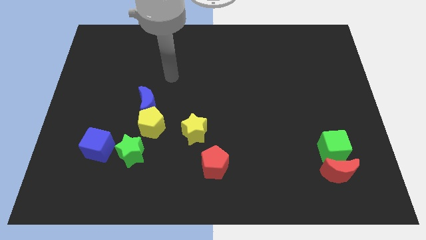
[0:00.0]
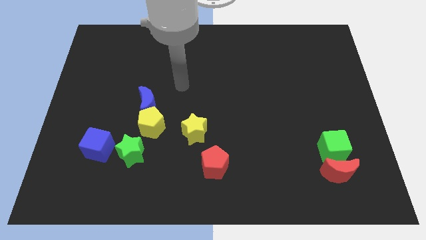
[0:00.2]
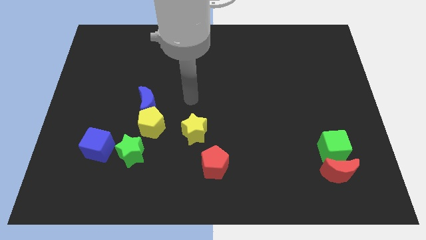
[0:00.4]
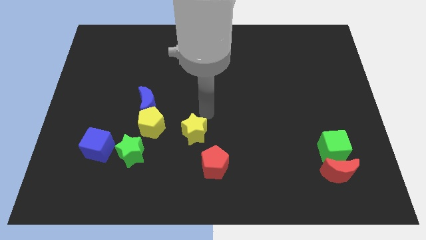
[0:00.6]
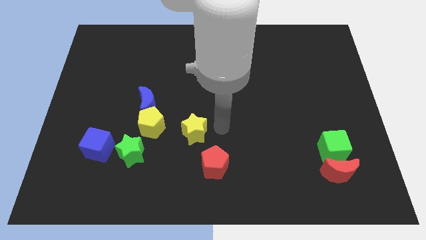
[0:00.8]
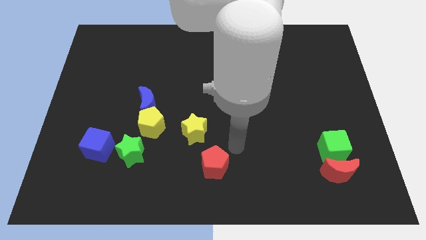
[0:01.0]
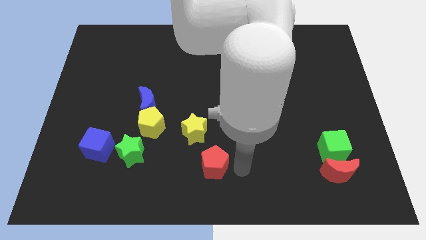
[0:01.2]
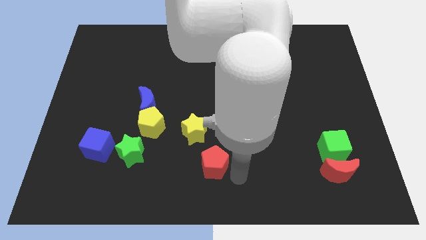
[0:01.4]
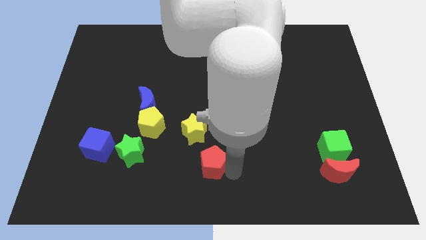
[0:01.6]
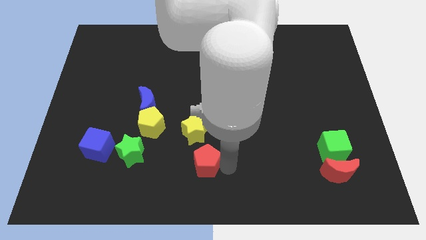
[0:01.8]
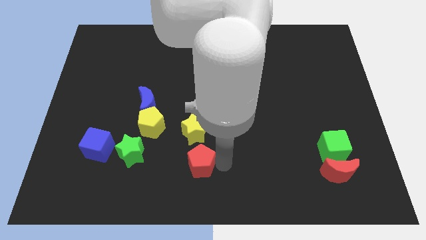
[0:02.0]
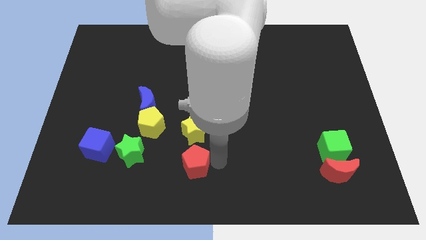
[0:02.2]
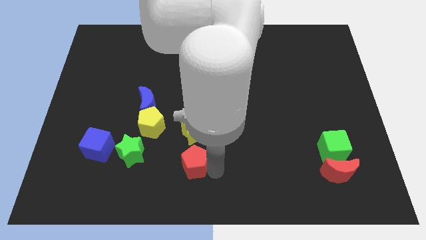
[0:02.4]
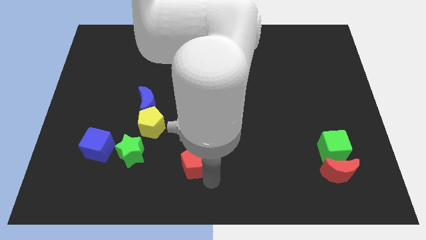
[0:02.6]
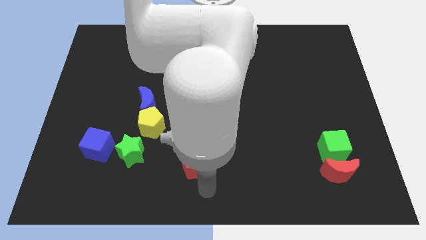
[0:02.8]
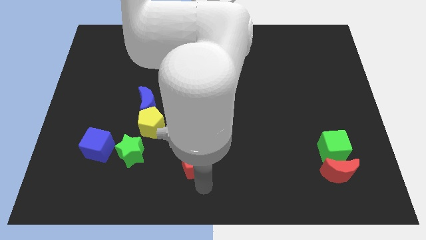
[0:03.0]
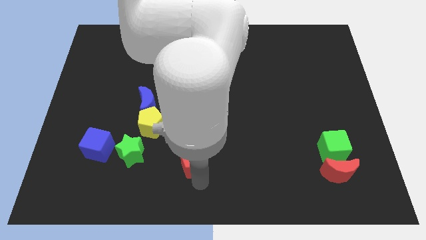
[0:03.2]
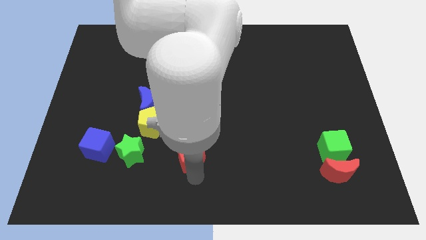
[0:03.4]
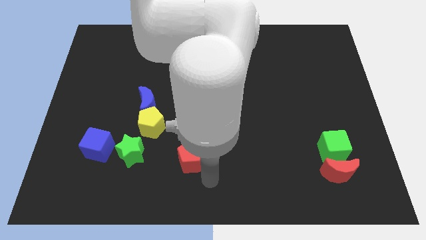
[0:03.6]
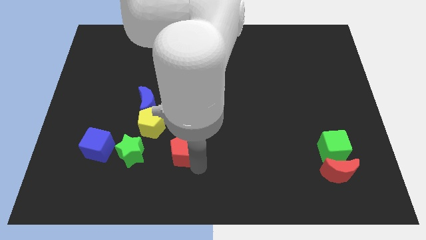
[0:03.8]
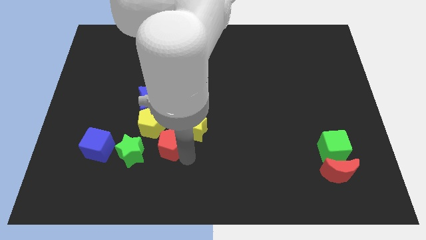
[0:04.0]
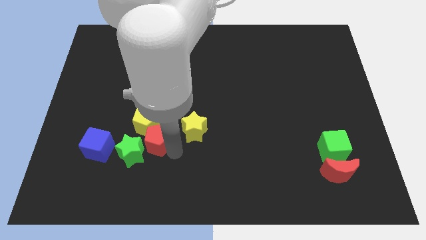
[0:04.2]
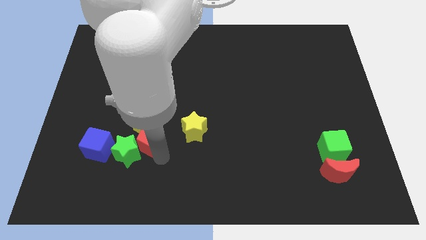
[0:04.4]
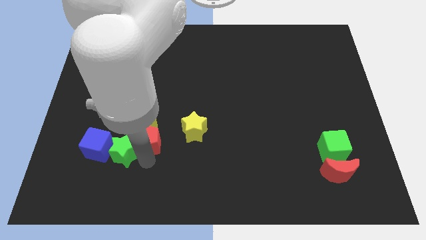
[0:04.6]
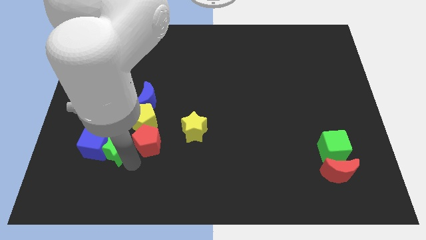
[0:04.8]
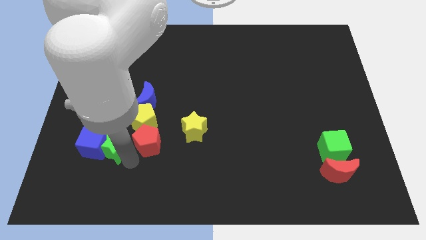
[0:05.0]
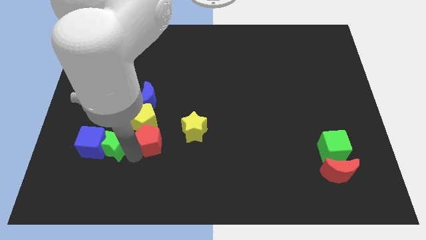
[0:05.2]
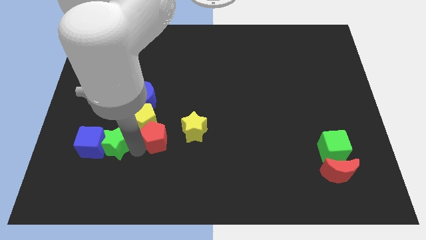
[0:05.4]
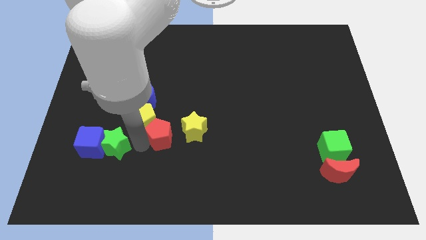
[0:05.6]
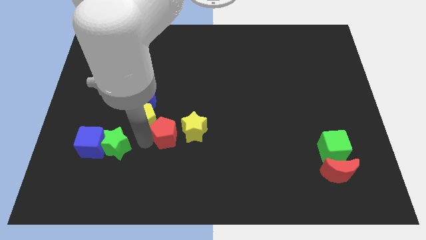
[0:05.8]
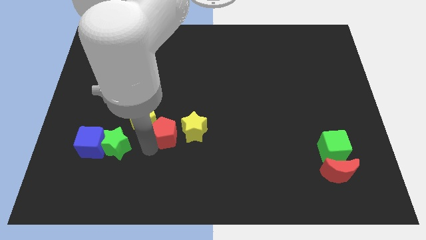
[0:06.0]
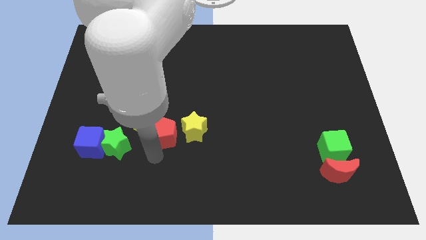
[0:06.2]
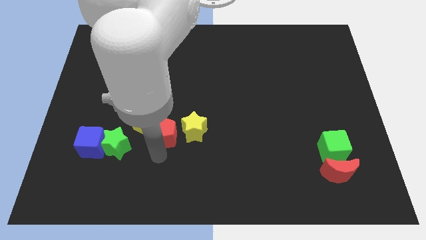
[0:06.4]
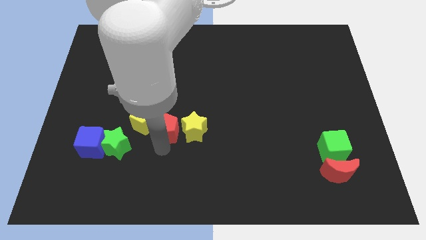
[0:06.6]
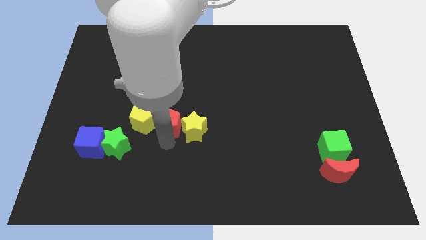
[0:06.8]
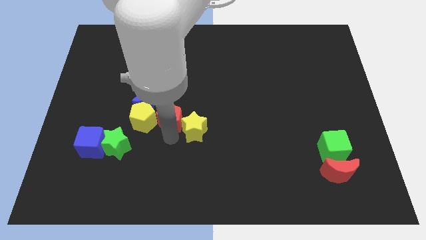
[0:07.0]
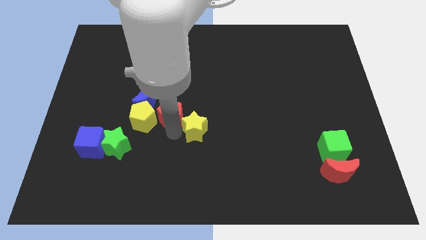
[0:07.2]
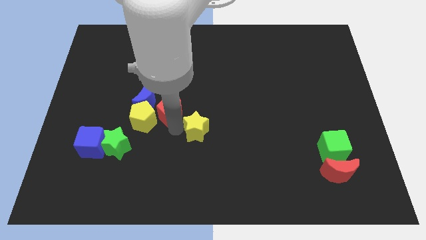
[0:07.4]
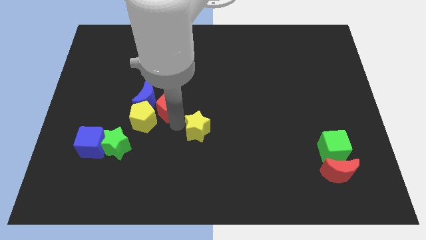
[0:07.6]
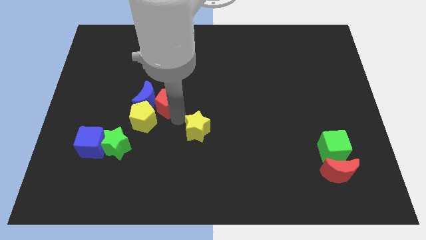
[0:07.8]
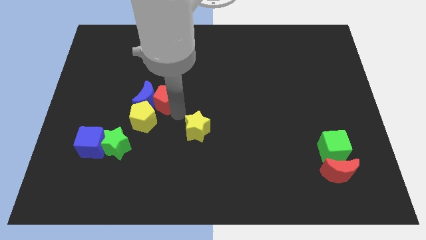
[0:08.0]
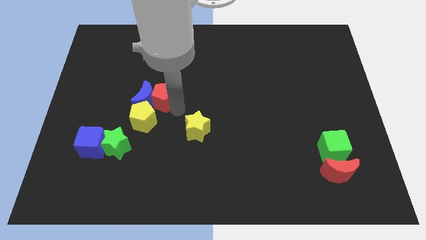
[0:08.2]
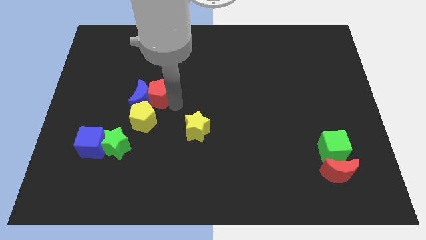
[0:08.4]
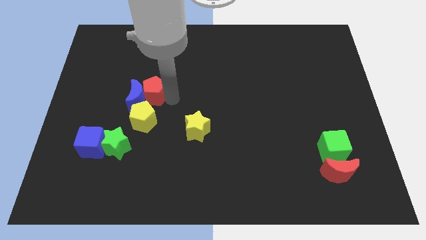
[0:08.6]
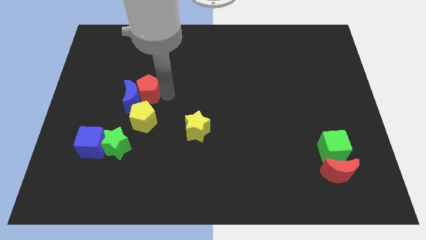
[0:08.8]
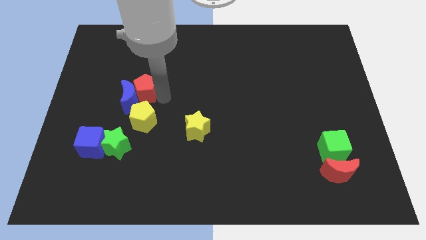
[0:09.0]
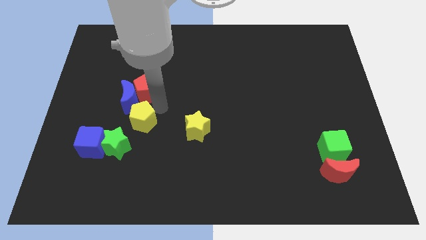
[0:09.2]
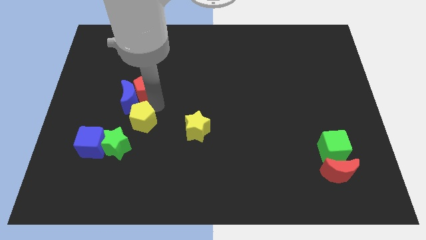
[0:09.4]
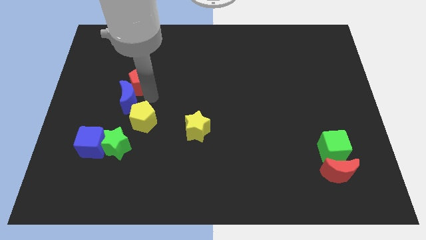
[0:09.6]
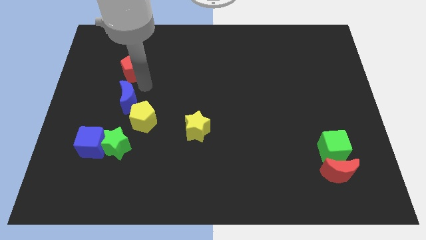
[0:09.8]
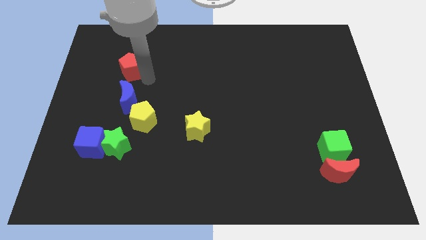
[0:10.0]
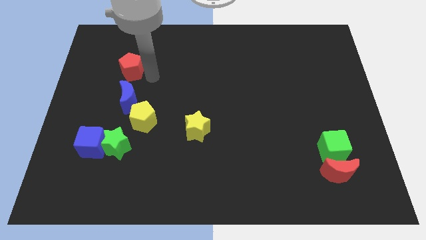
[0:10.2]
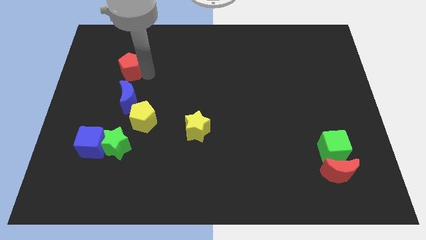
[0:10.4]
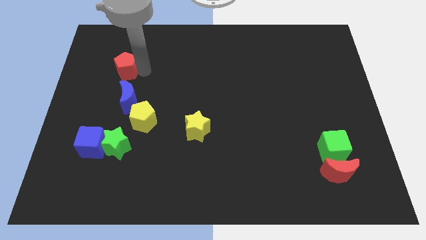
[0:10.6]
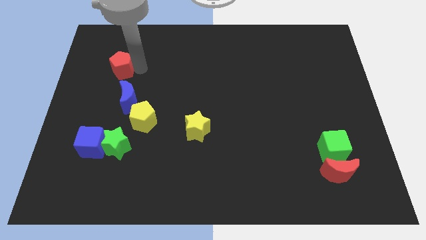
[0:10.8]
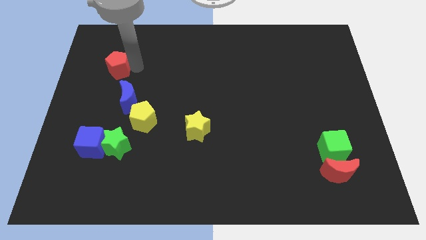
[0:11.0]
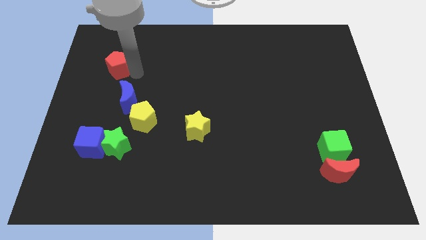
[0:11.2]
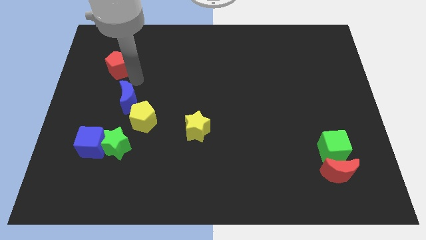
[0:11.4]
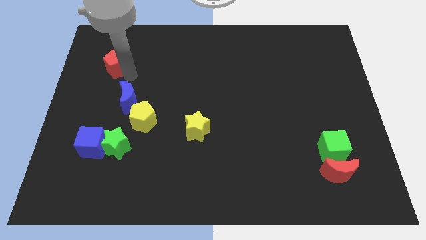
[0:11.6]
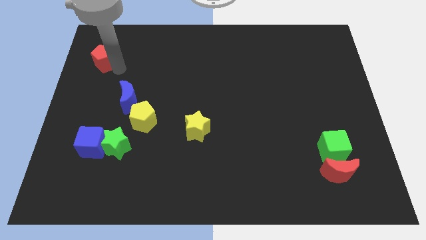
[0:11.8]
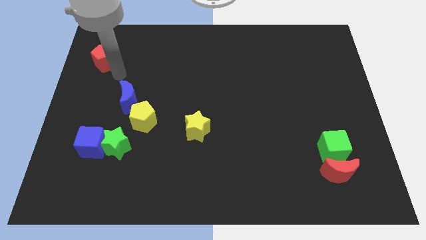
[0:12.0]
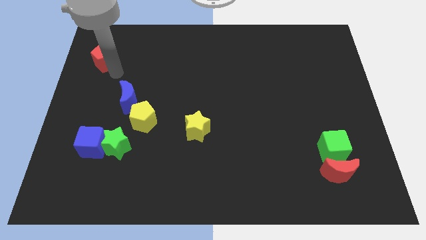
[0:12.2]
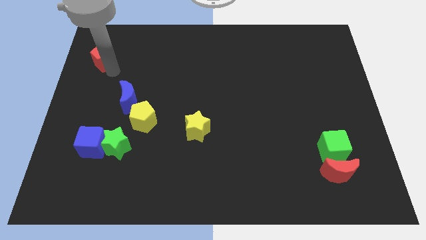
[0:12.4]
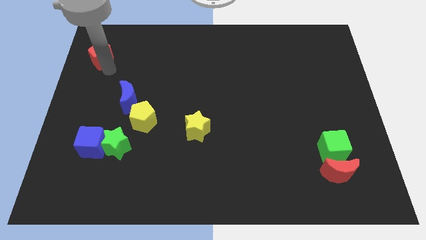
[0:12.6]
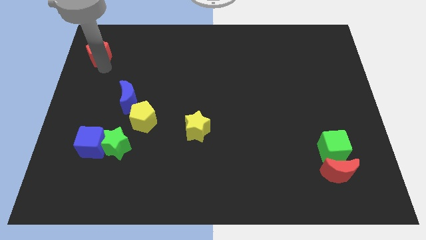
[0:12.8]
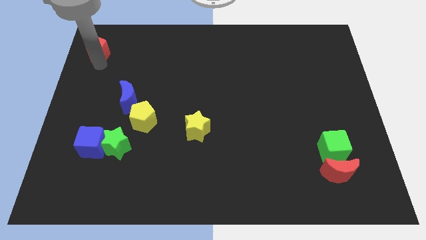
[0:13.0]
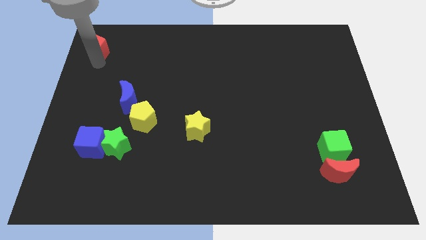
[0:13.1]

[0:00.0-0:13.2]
move the red pentagon to the upper left corner

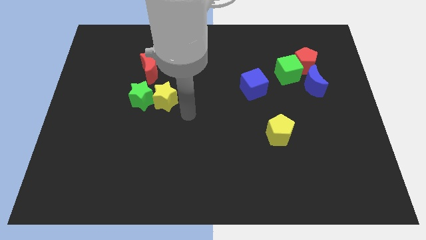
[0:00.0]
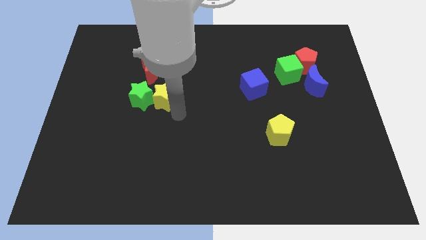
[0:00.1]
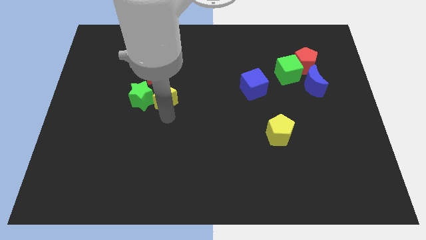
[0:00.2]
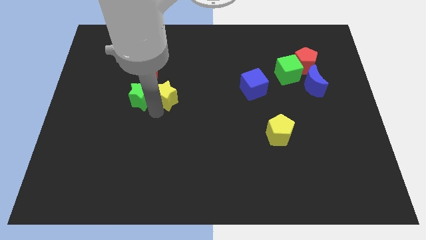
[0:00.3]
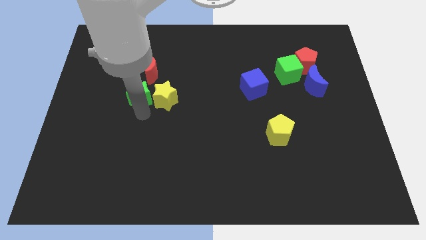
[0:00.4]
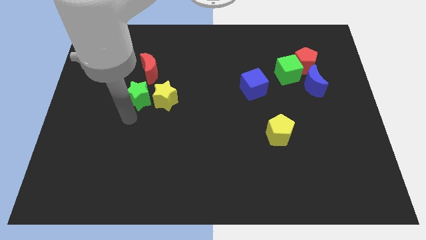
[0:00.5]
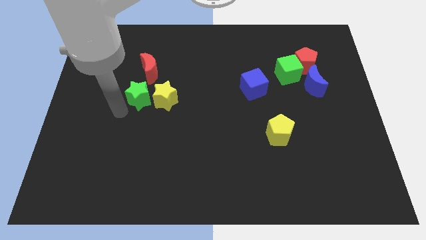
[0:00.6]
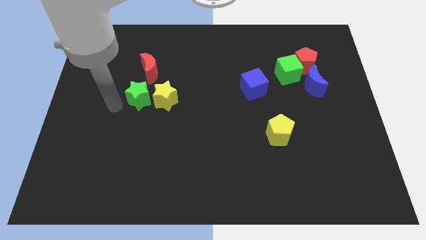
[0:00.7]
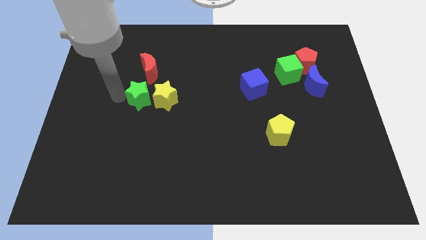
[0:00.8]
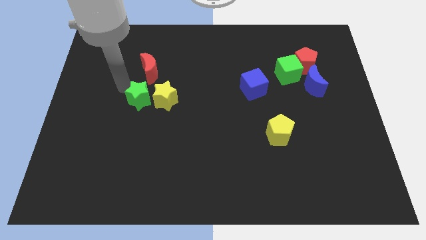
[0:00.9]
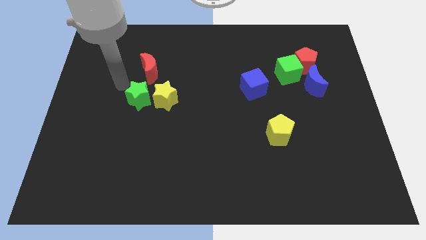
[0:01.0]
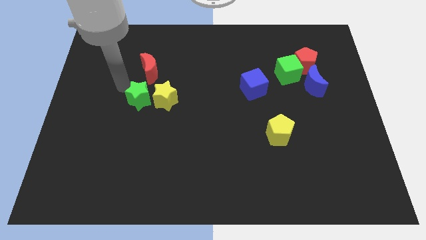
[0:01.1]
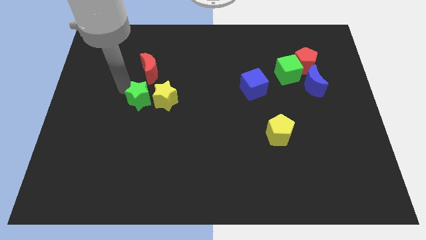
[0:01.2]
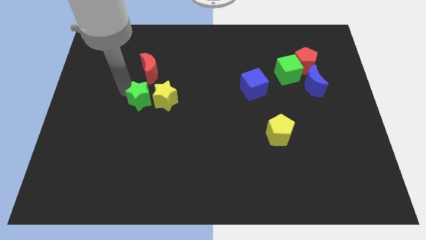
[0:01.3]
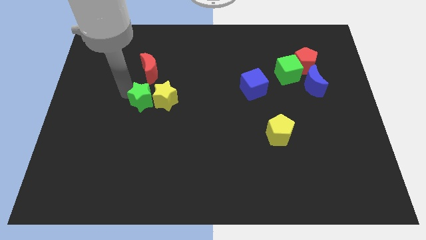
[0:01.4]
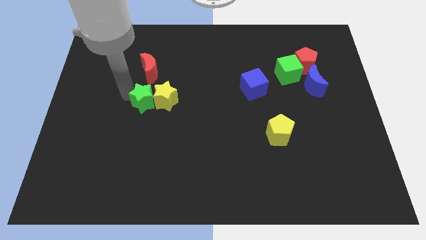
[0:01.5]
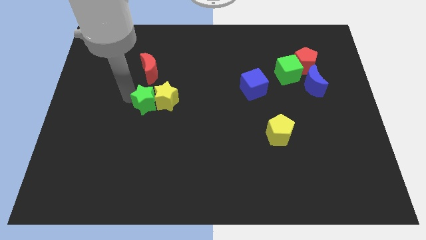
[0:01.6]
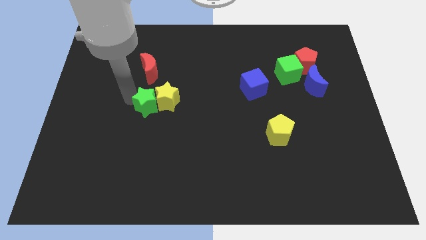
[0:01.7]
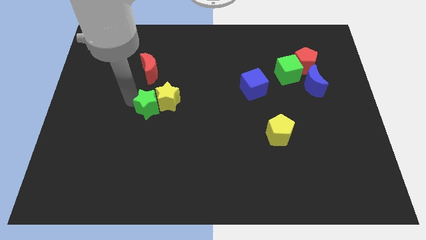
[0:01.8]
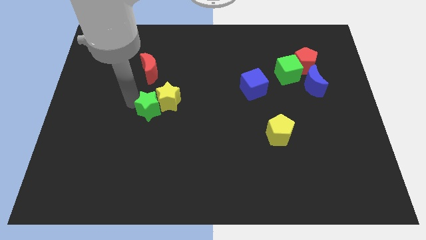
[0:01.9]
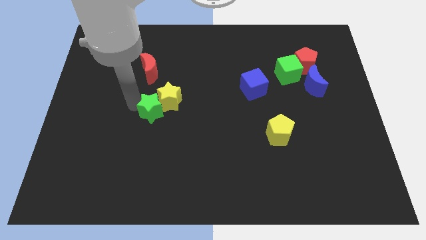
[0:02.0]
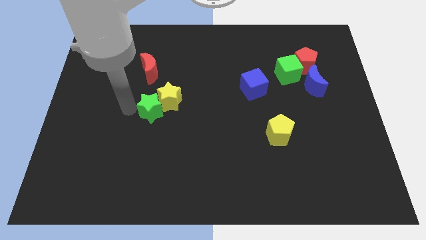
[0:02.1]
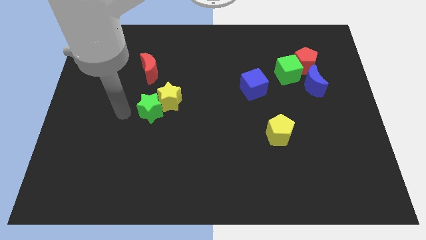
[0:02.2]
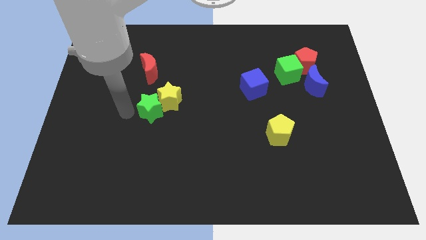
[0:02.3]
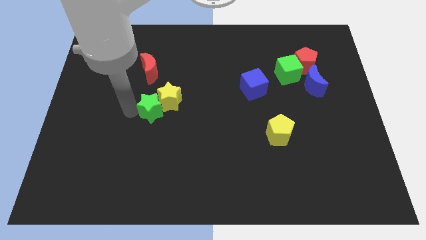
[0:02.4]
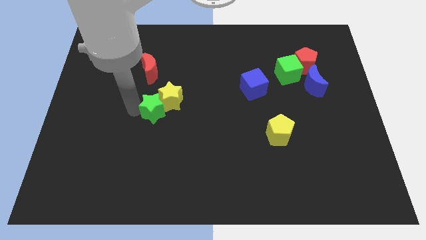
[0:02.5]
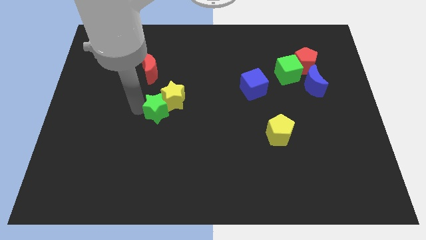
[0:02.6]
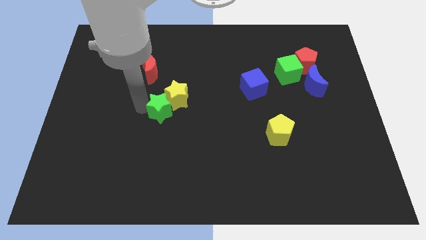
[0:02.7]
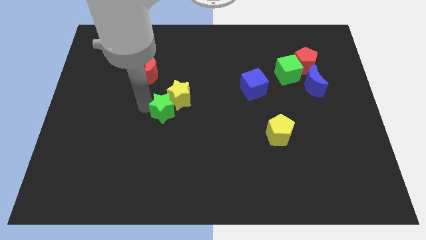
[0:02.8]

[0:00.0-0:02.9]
move the green star to the middle of the board
